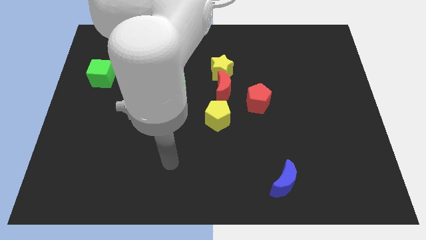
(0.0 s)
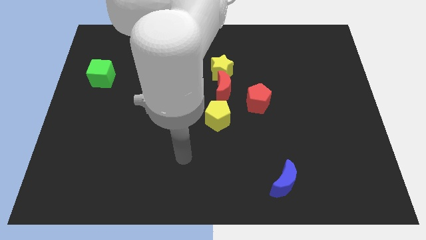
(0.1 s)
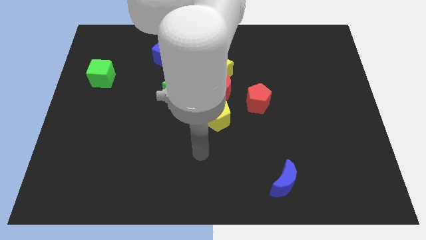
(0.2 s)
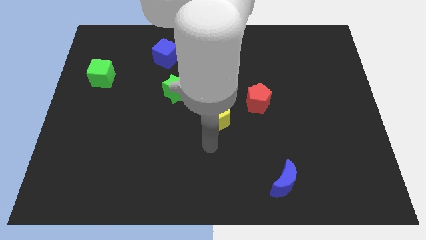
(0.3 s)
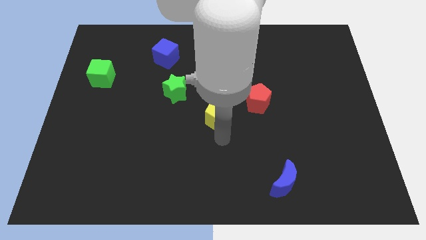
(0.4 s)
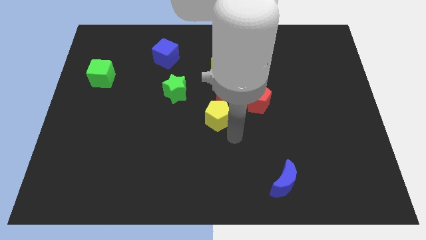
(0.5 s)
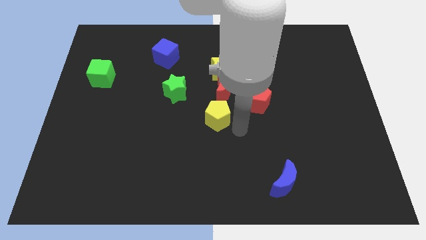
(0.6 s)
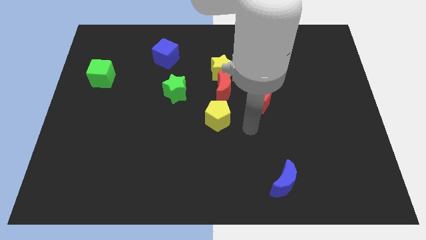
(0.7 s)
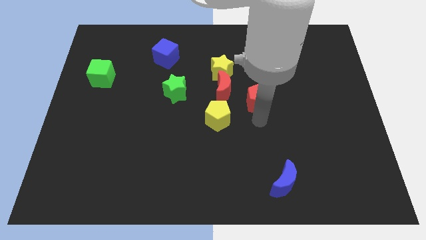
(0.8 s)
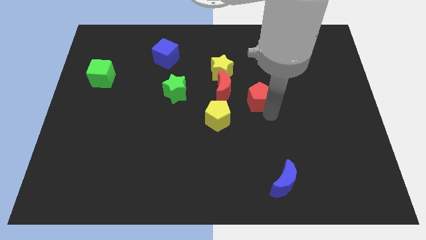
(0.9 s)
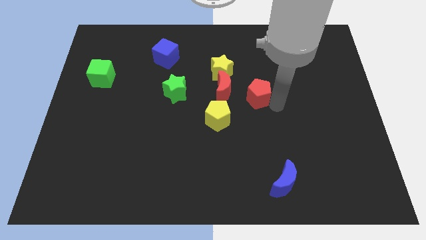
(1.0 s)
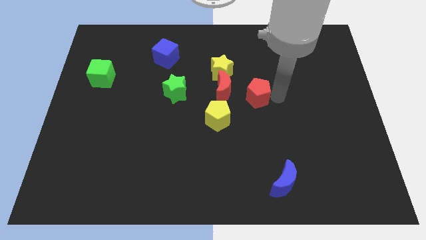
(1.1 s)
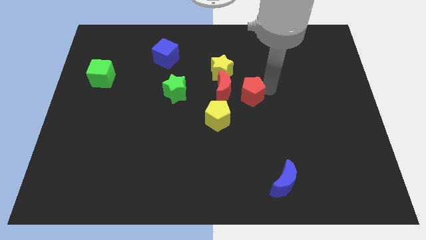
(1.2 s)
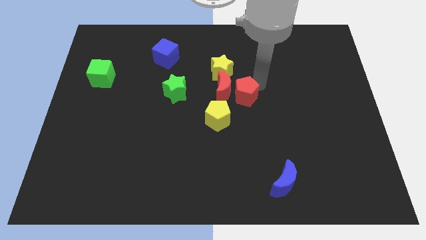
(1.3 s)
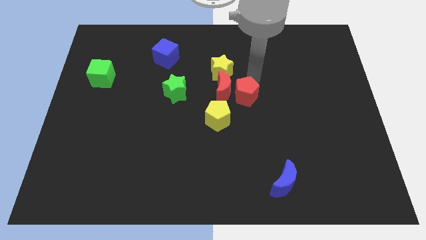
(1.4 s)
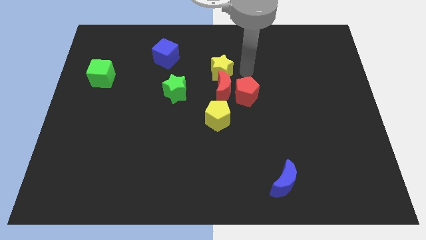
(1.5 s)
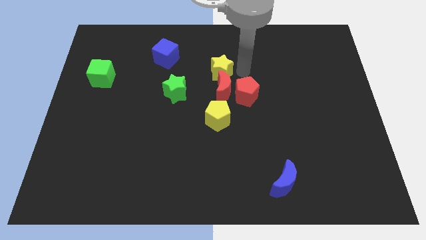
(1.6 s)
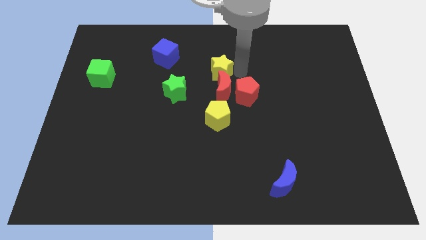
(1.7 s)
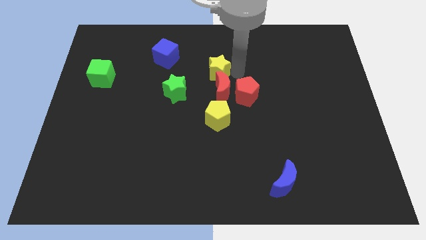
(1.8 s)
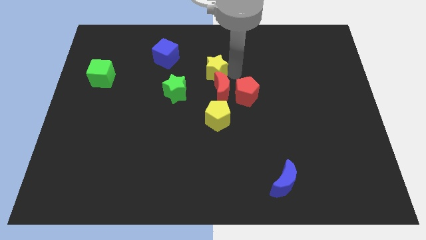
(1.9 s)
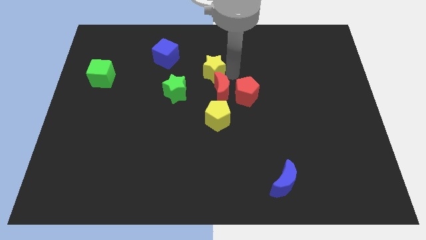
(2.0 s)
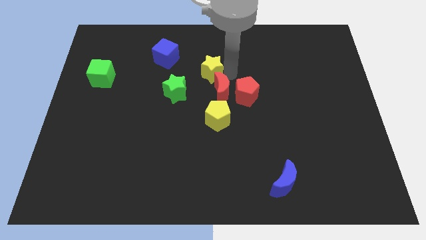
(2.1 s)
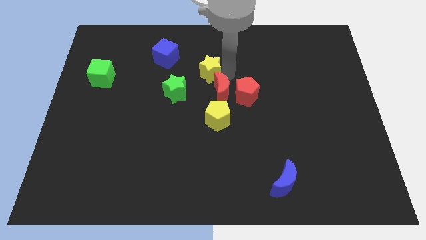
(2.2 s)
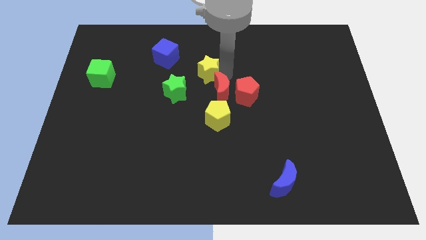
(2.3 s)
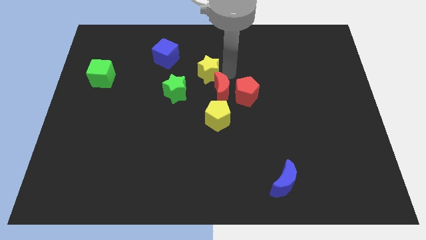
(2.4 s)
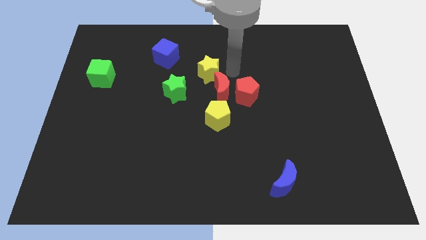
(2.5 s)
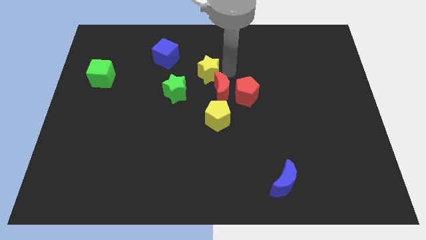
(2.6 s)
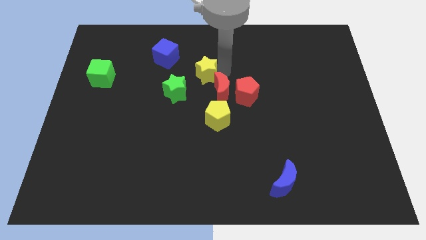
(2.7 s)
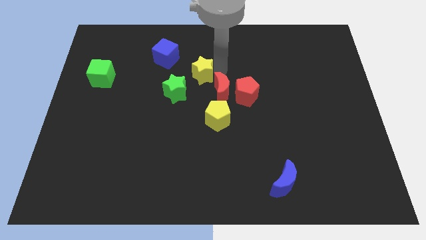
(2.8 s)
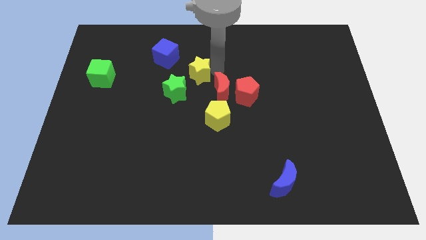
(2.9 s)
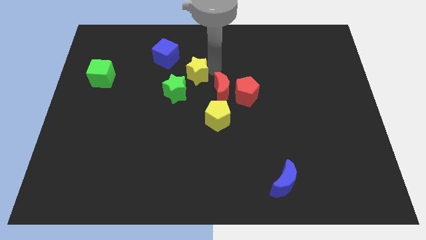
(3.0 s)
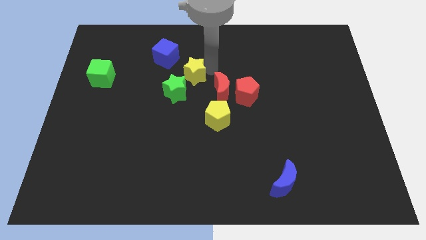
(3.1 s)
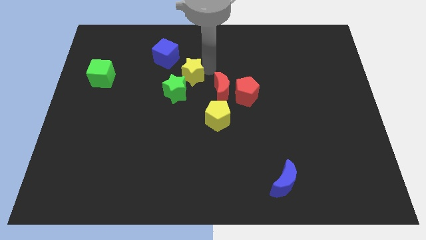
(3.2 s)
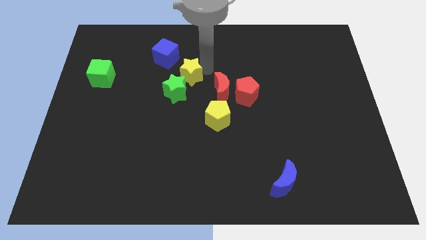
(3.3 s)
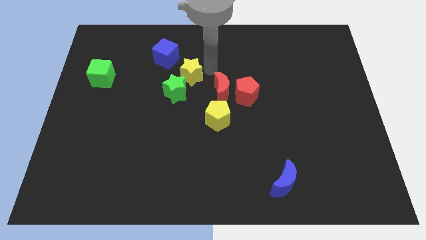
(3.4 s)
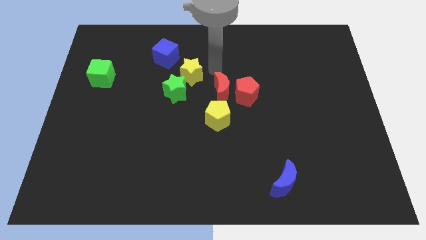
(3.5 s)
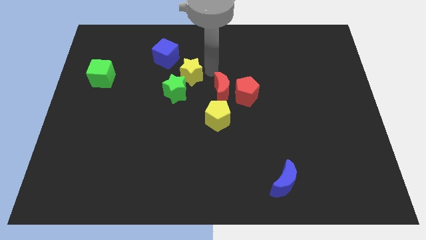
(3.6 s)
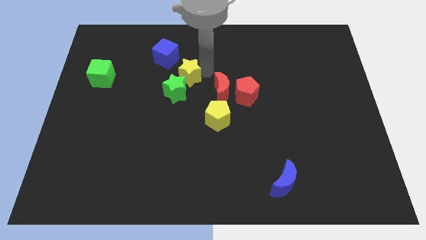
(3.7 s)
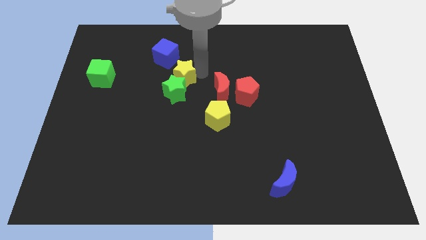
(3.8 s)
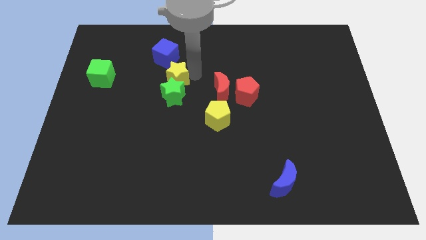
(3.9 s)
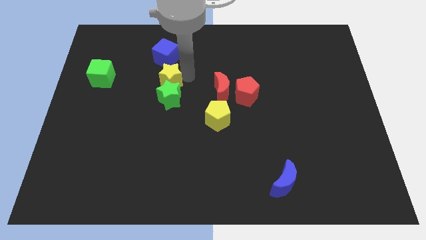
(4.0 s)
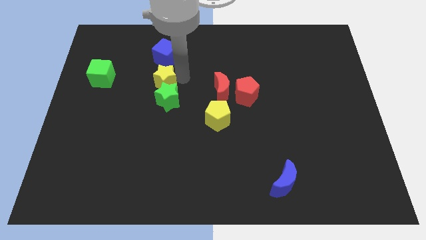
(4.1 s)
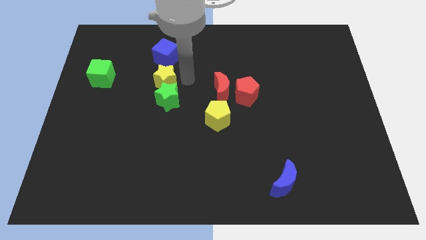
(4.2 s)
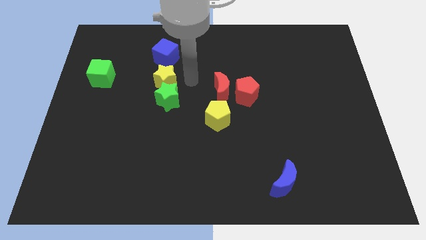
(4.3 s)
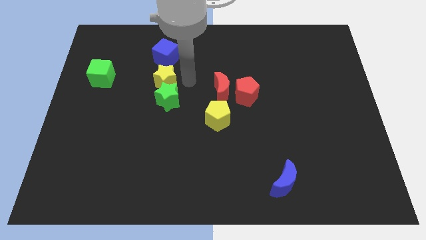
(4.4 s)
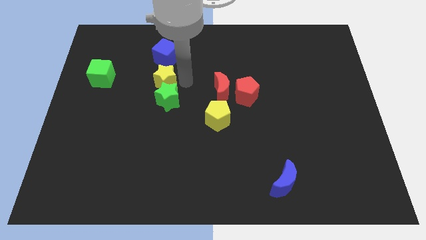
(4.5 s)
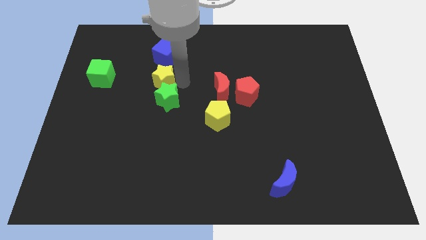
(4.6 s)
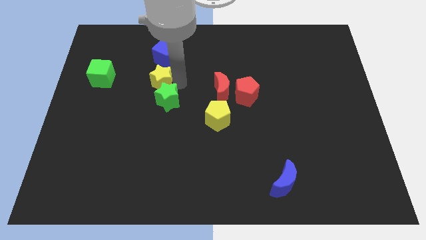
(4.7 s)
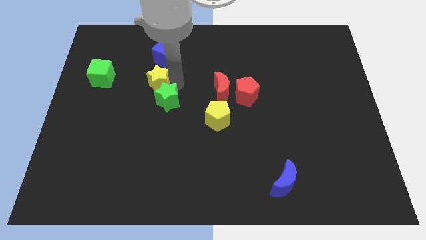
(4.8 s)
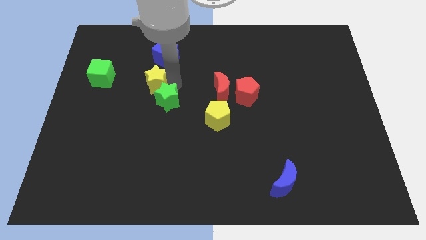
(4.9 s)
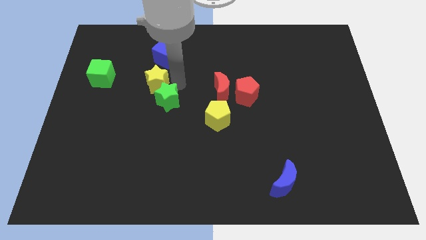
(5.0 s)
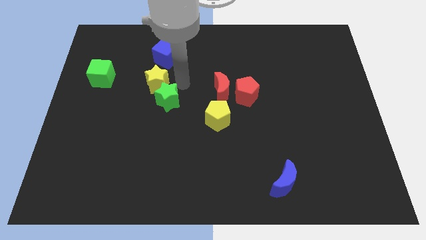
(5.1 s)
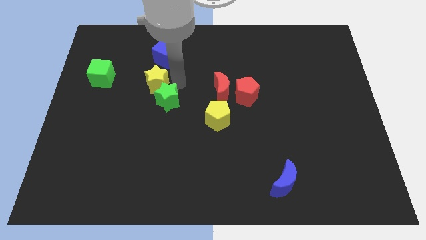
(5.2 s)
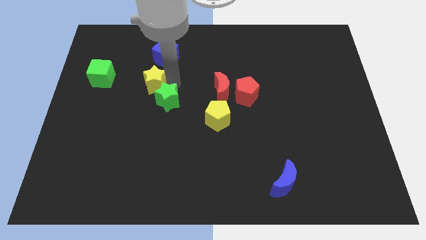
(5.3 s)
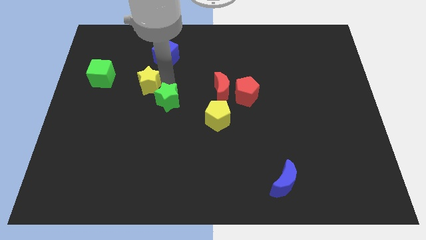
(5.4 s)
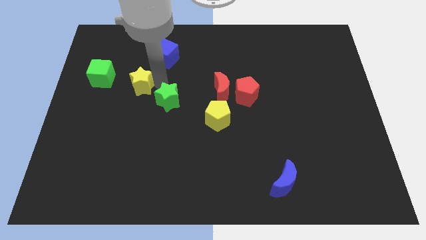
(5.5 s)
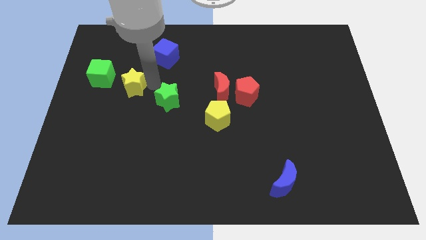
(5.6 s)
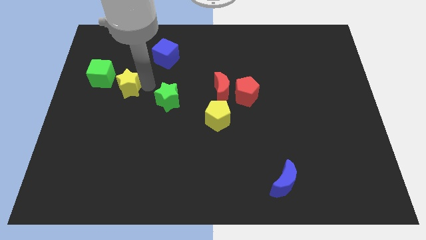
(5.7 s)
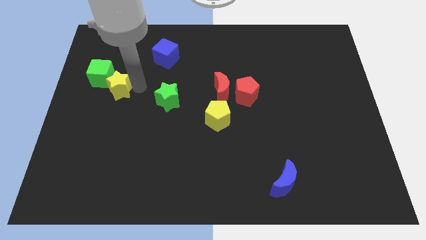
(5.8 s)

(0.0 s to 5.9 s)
slide the yellow star close to the green cube

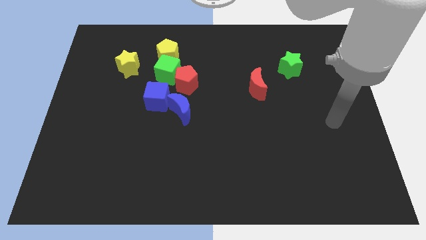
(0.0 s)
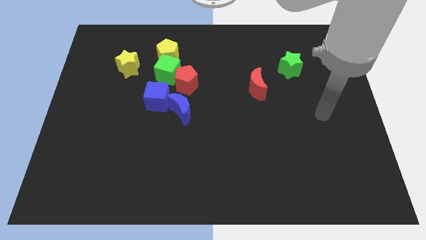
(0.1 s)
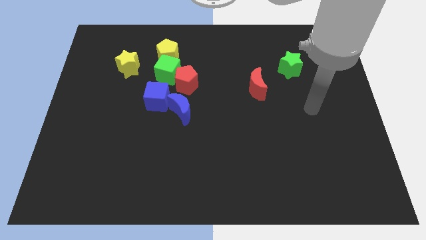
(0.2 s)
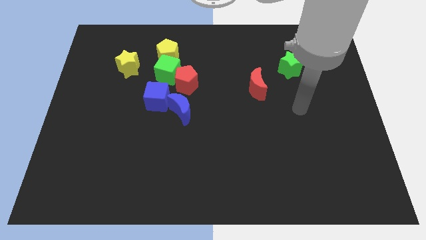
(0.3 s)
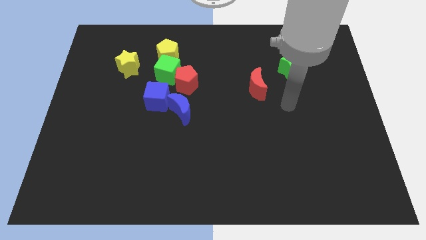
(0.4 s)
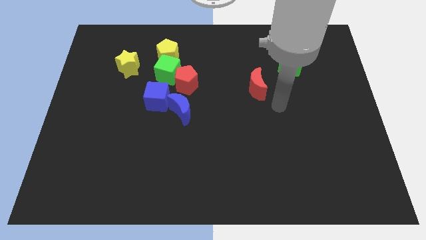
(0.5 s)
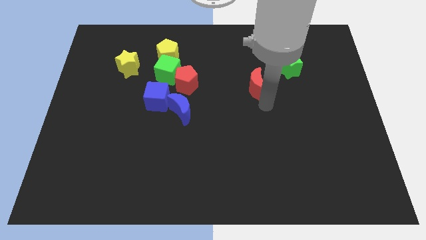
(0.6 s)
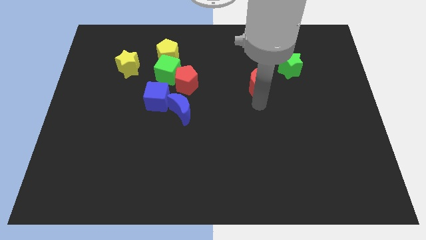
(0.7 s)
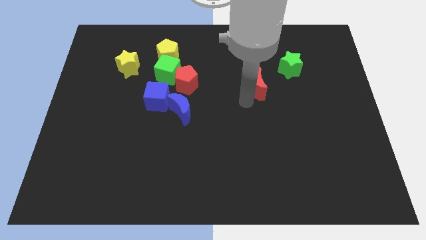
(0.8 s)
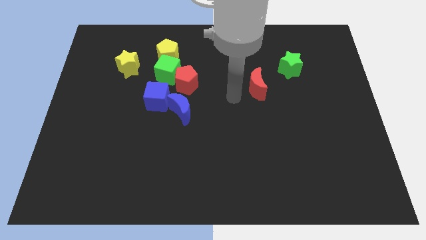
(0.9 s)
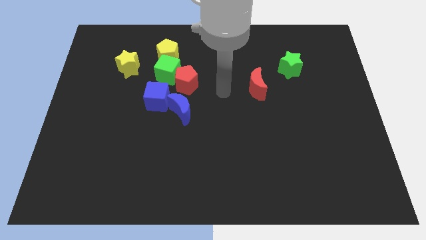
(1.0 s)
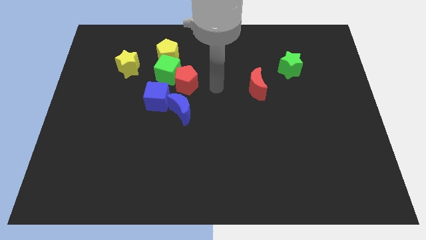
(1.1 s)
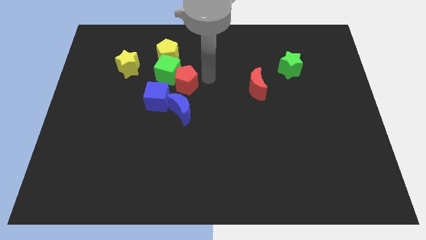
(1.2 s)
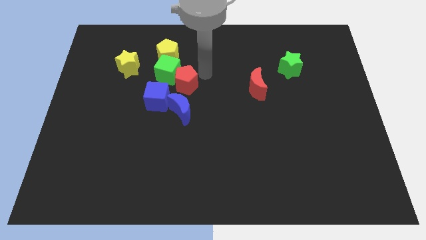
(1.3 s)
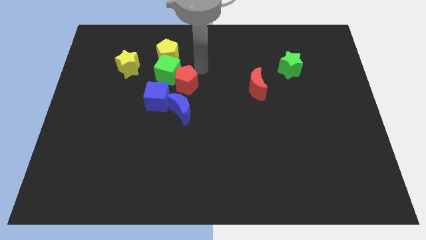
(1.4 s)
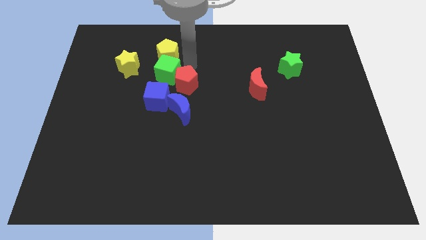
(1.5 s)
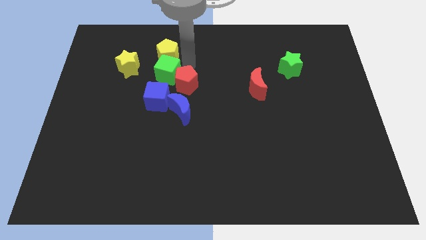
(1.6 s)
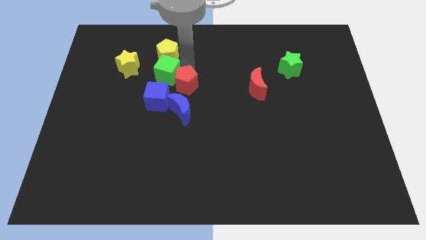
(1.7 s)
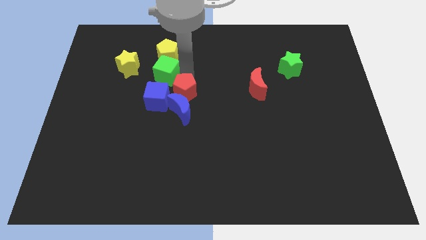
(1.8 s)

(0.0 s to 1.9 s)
slide the red pentagon next to the blue moon
